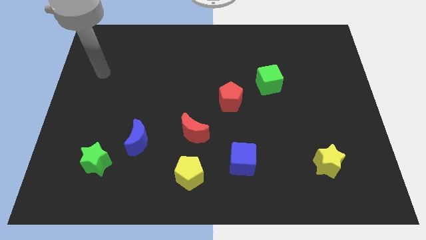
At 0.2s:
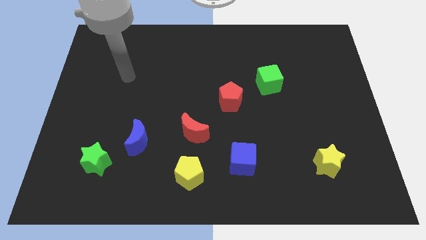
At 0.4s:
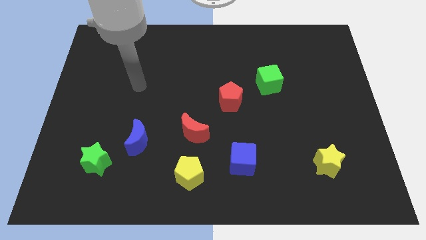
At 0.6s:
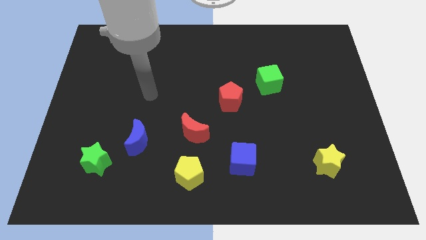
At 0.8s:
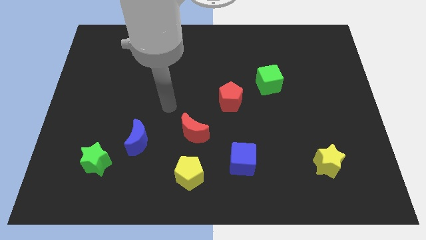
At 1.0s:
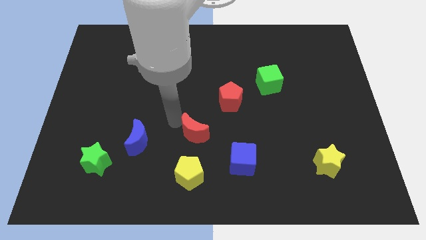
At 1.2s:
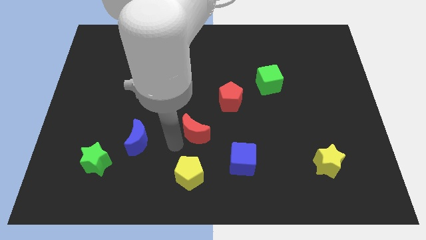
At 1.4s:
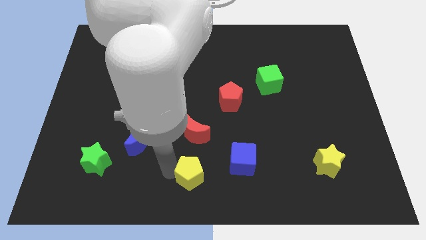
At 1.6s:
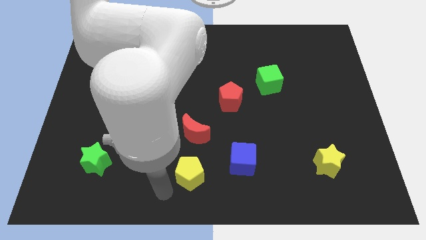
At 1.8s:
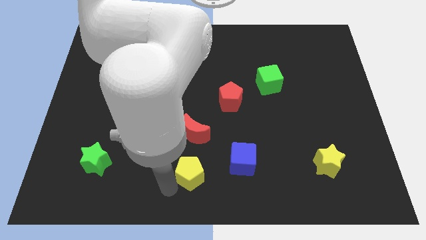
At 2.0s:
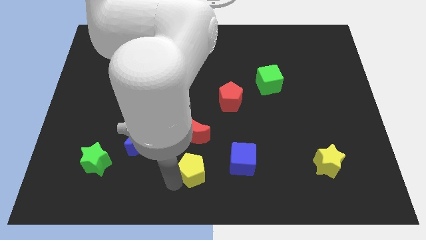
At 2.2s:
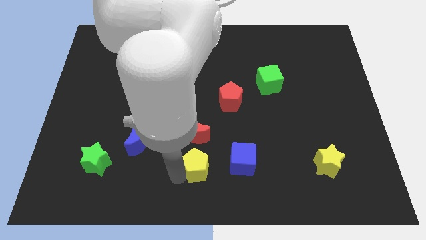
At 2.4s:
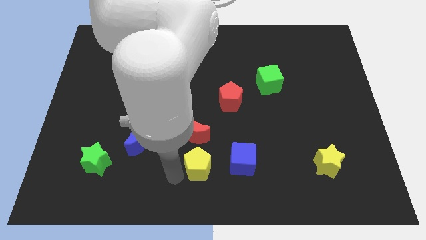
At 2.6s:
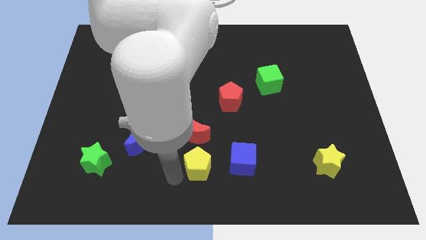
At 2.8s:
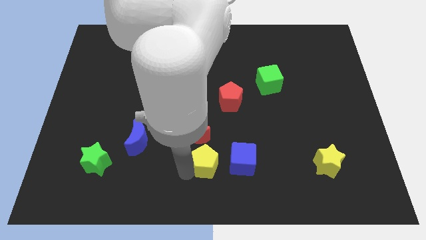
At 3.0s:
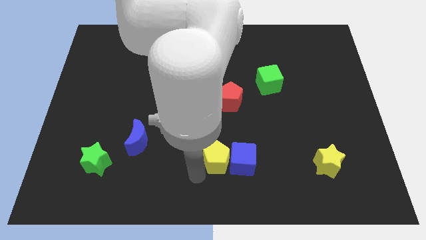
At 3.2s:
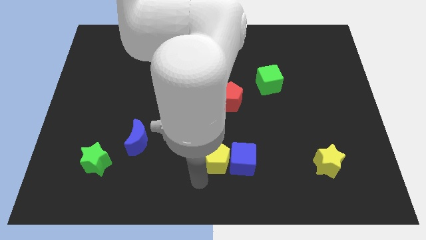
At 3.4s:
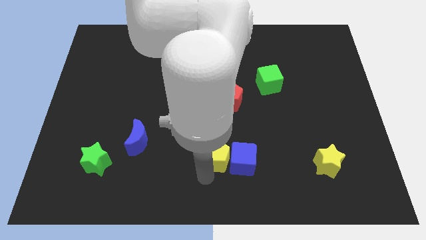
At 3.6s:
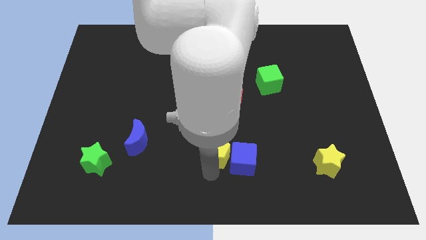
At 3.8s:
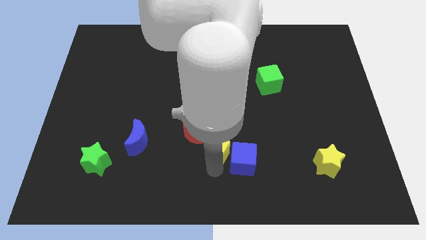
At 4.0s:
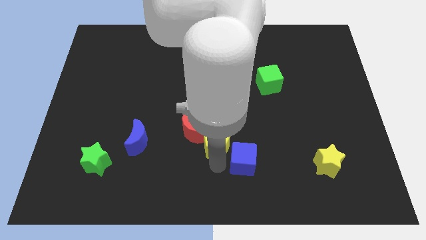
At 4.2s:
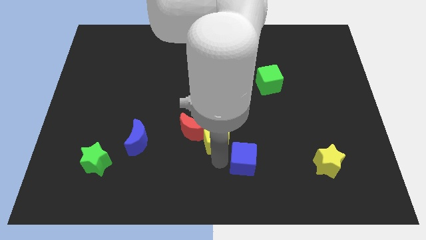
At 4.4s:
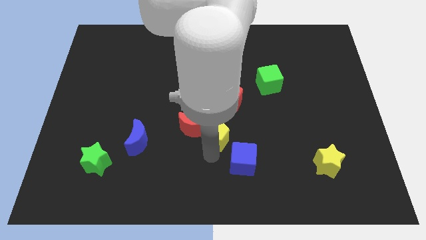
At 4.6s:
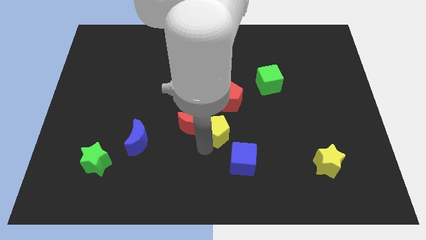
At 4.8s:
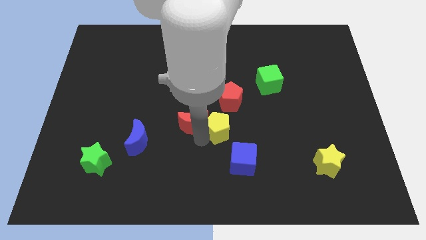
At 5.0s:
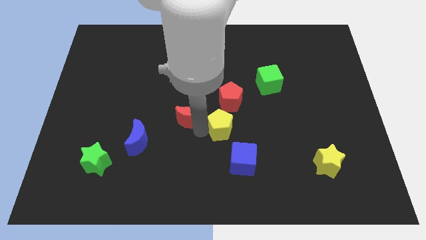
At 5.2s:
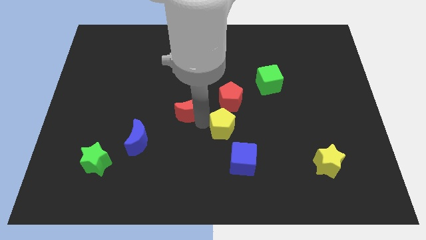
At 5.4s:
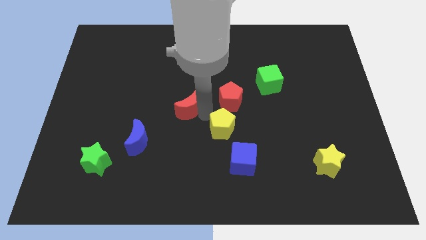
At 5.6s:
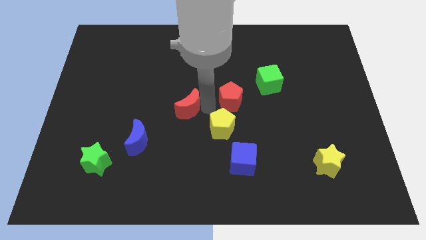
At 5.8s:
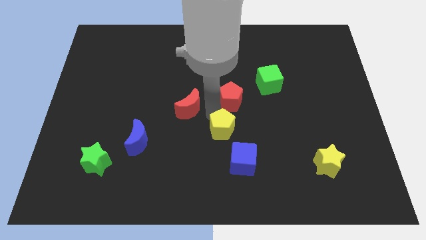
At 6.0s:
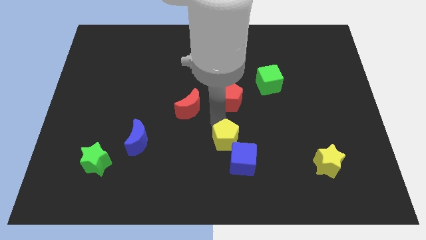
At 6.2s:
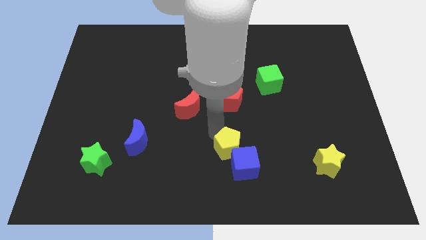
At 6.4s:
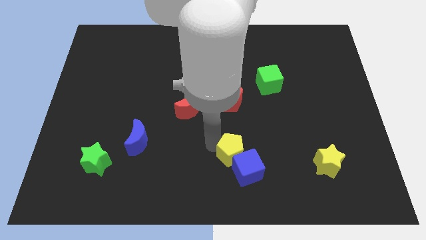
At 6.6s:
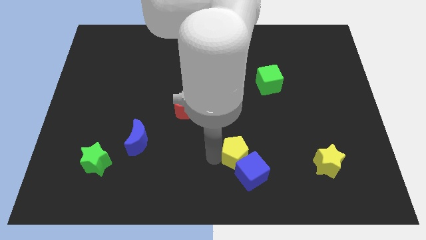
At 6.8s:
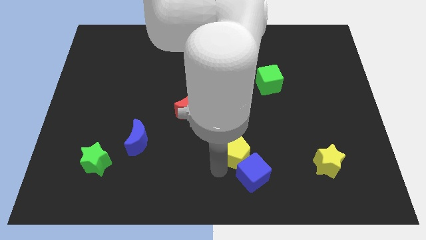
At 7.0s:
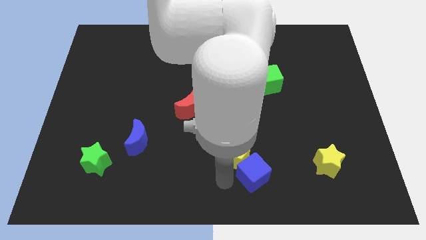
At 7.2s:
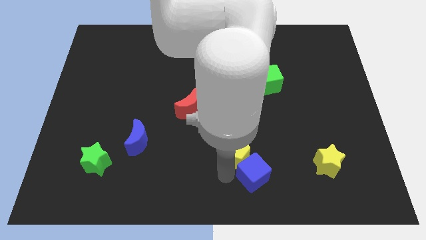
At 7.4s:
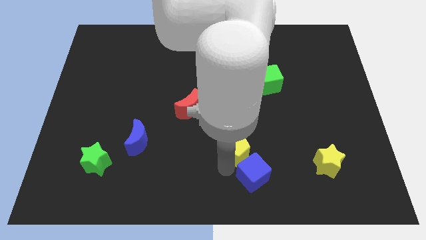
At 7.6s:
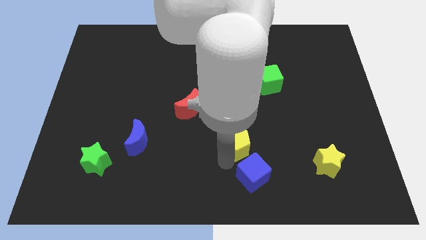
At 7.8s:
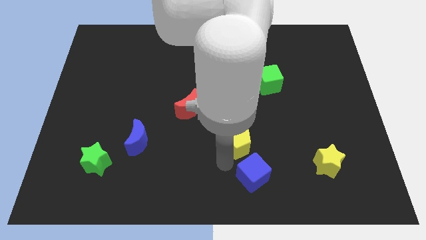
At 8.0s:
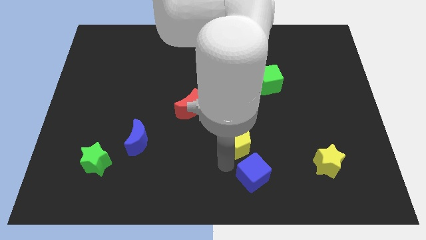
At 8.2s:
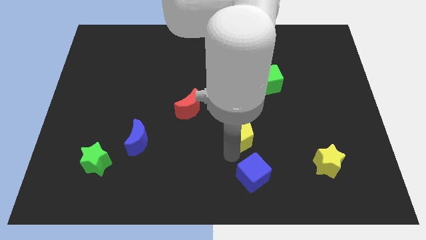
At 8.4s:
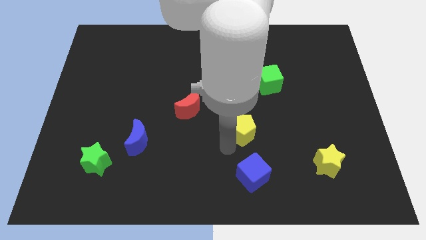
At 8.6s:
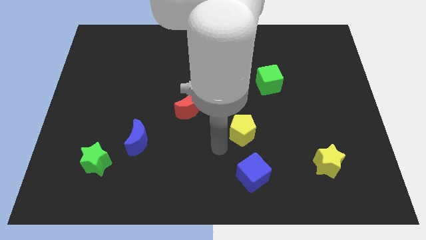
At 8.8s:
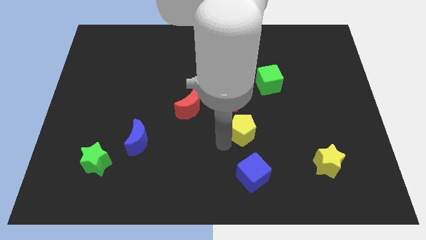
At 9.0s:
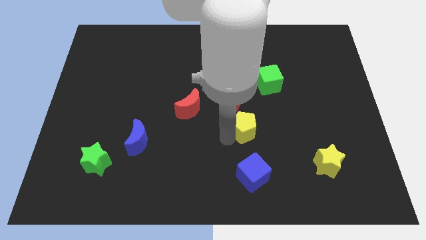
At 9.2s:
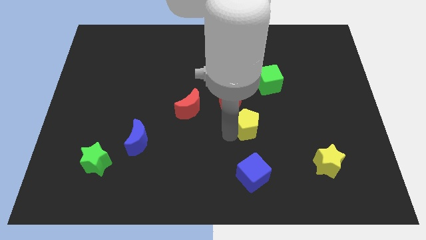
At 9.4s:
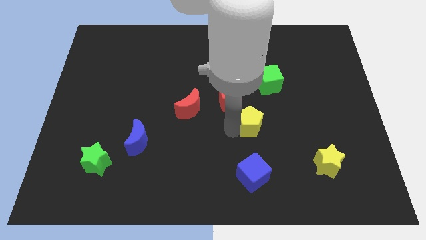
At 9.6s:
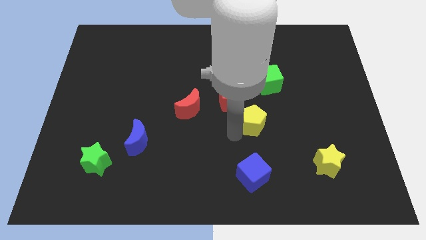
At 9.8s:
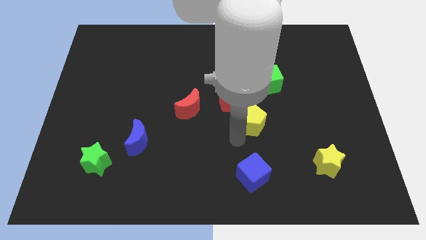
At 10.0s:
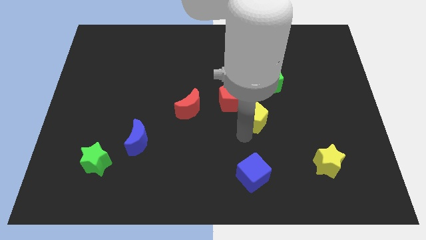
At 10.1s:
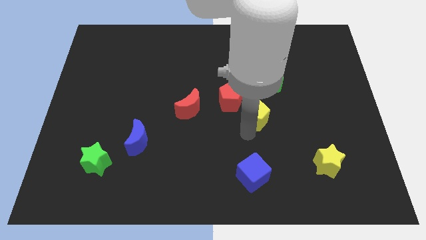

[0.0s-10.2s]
slide the yellow pentagon to the right side of the red pentagon

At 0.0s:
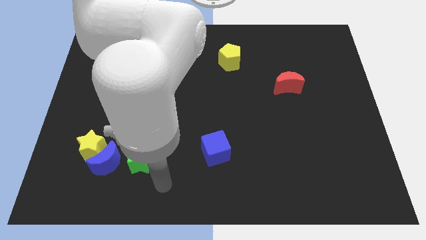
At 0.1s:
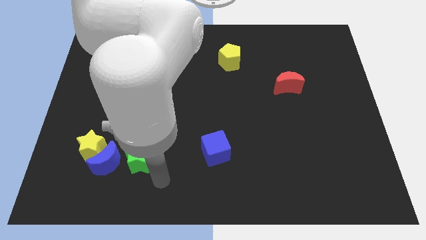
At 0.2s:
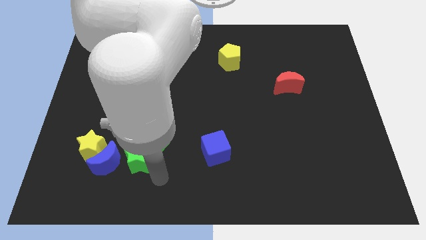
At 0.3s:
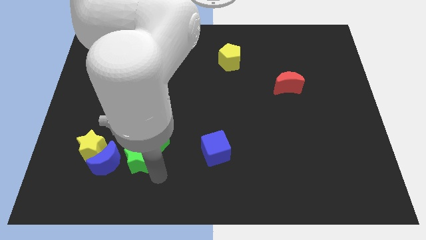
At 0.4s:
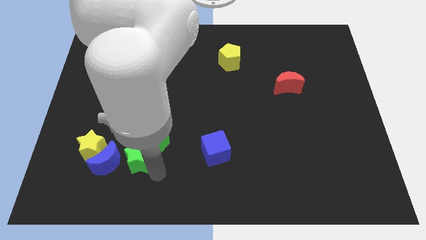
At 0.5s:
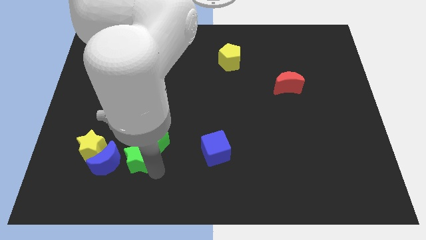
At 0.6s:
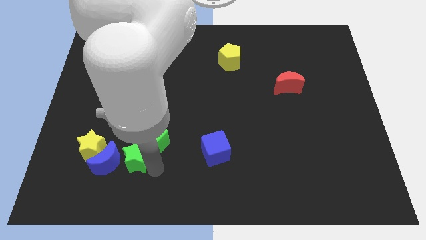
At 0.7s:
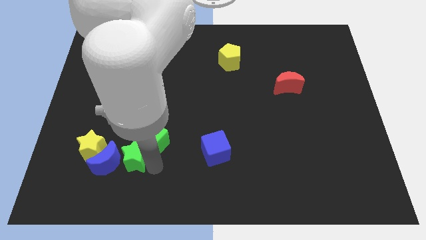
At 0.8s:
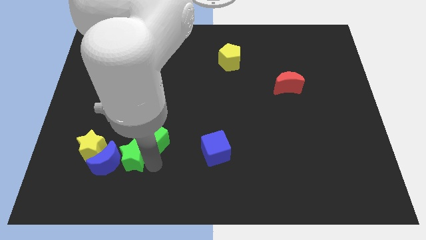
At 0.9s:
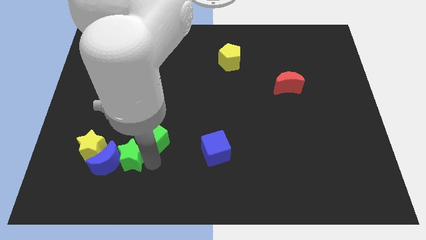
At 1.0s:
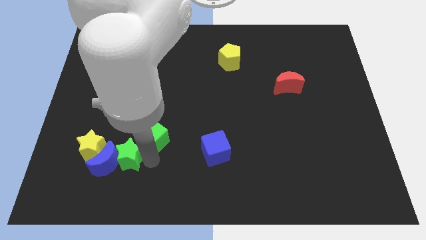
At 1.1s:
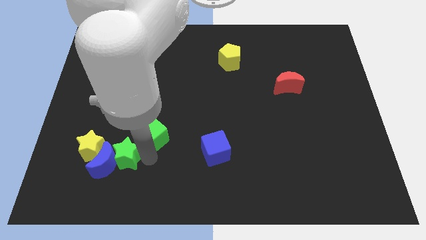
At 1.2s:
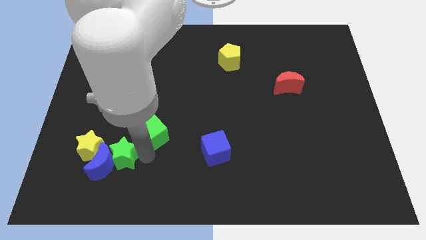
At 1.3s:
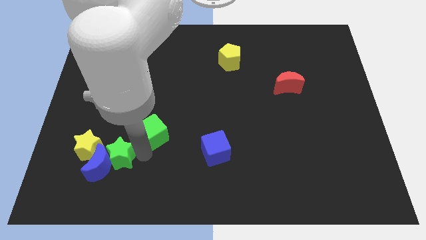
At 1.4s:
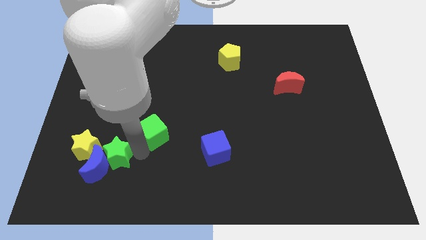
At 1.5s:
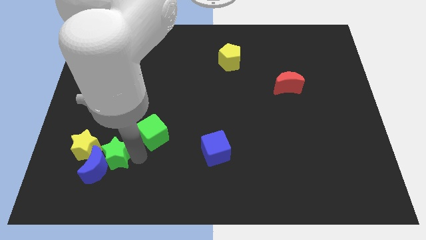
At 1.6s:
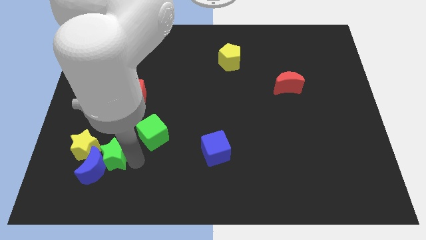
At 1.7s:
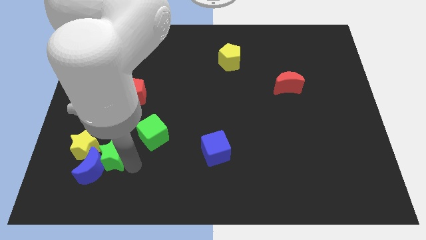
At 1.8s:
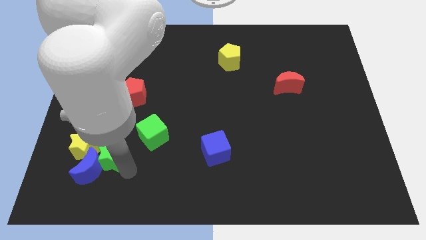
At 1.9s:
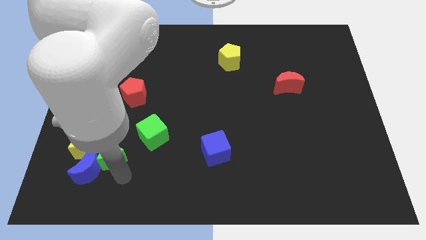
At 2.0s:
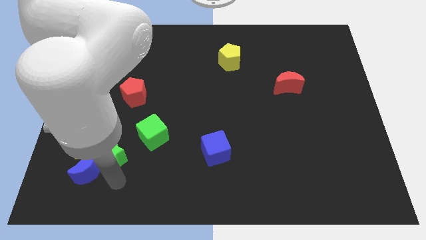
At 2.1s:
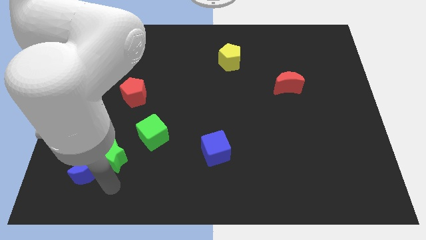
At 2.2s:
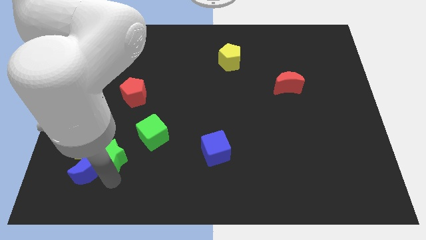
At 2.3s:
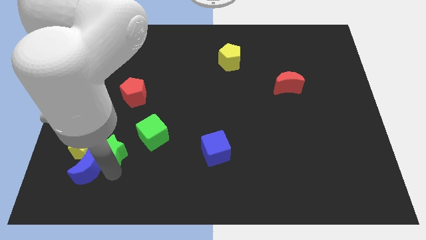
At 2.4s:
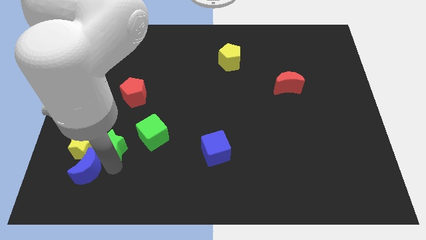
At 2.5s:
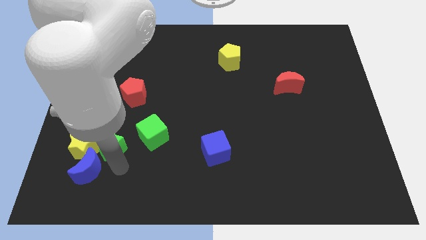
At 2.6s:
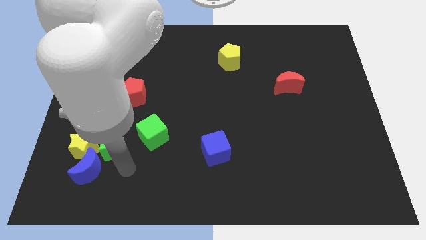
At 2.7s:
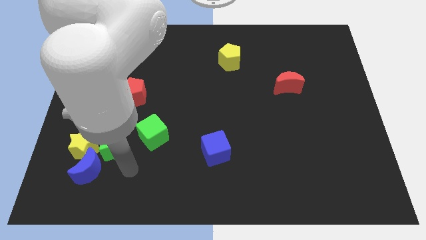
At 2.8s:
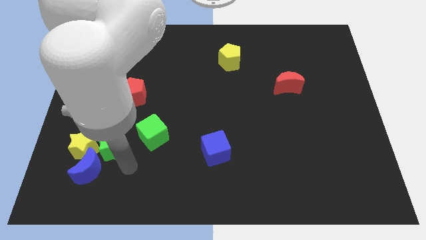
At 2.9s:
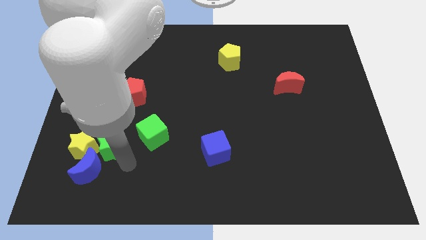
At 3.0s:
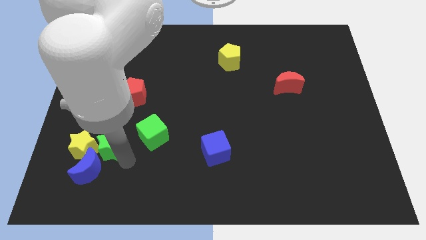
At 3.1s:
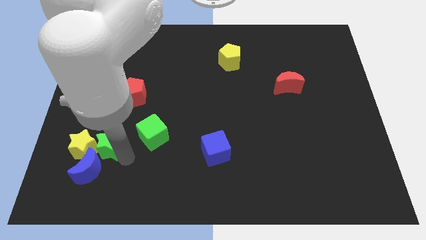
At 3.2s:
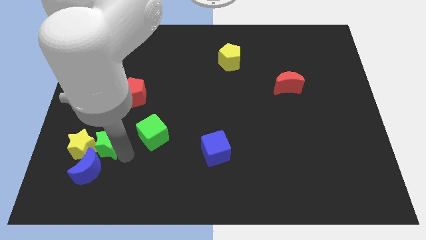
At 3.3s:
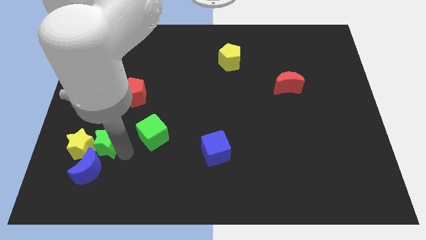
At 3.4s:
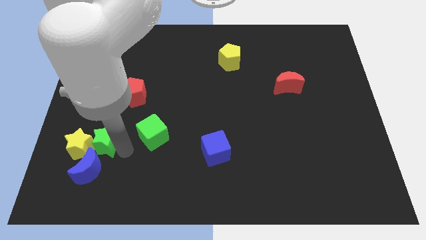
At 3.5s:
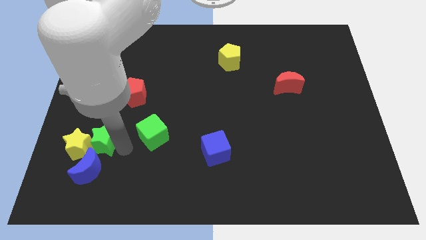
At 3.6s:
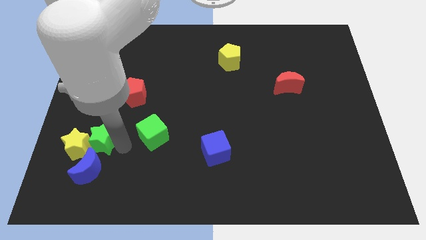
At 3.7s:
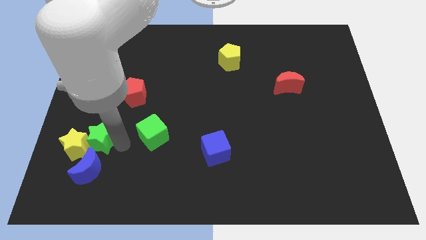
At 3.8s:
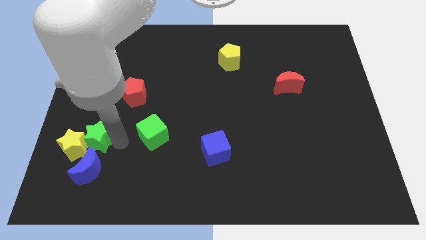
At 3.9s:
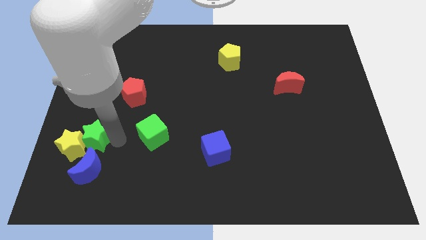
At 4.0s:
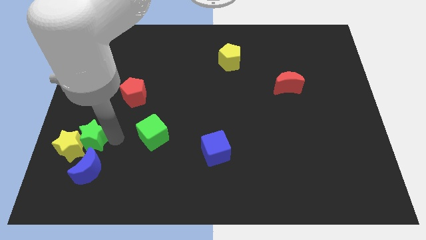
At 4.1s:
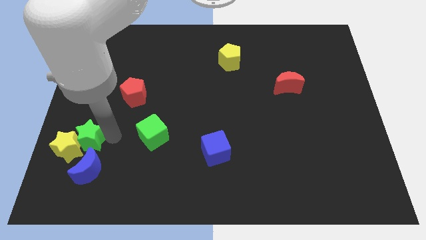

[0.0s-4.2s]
move the green star diagonally up and to the left of the blue moon
